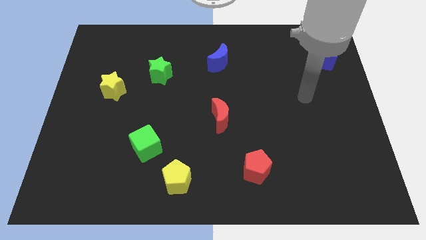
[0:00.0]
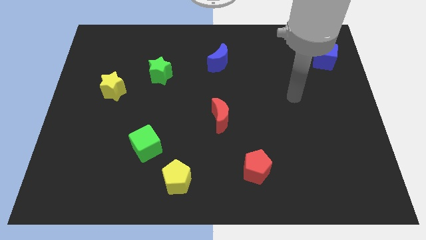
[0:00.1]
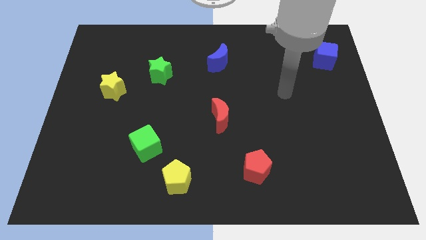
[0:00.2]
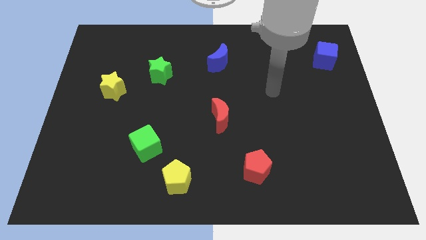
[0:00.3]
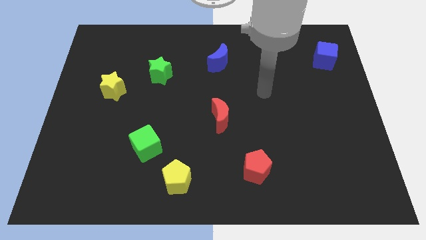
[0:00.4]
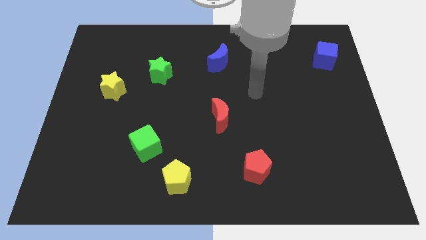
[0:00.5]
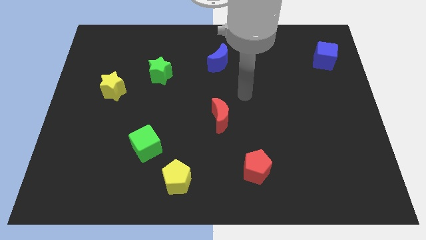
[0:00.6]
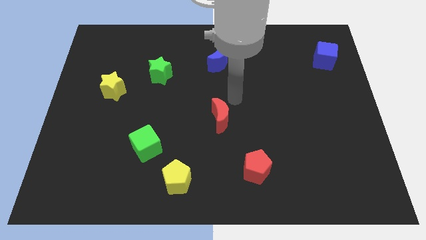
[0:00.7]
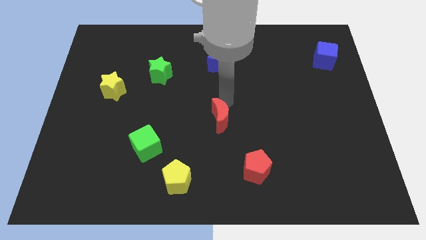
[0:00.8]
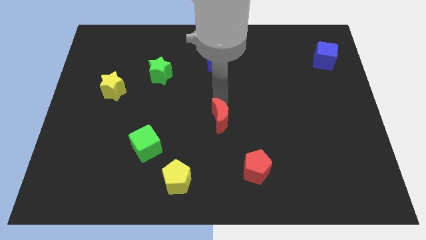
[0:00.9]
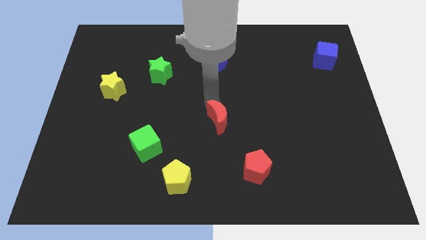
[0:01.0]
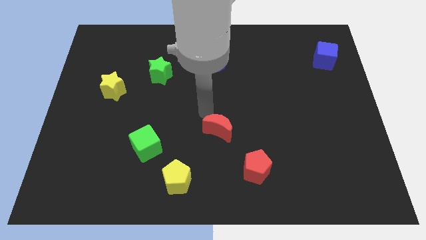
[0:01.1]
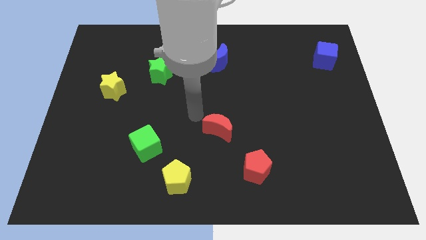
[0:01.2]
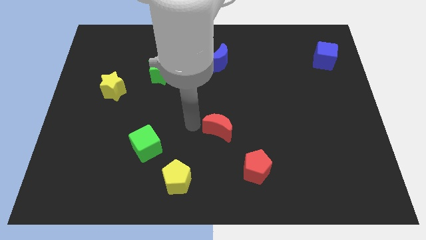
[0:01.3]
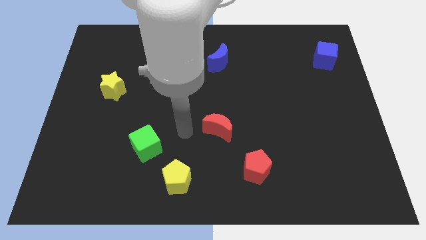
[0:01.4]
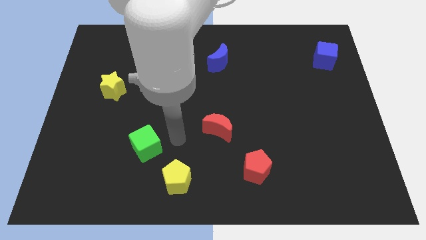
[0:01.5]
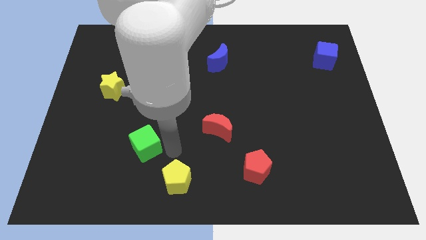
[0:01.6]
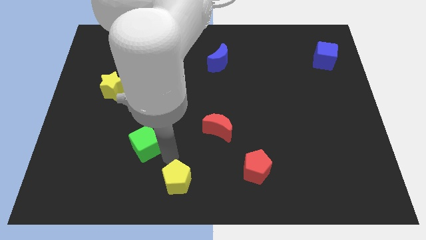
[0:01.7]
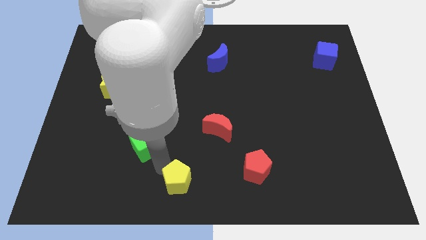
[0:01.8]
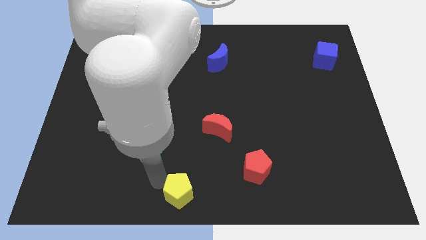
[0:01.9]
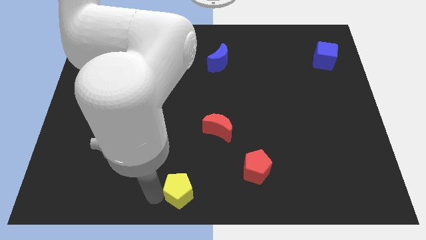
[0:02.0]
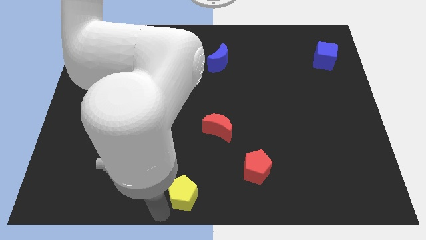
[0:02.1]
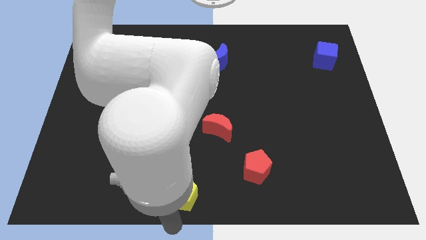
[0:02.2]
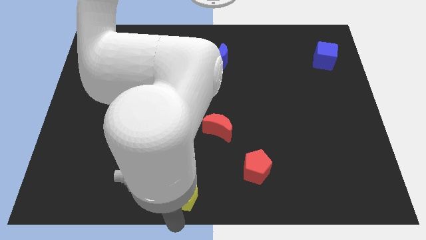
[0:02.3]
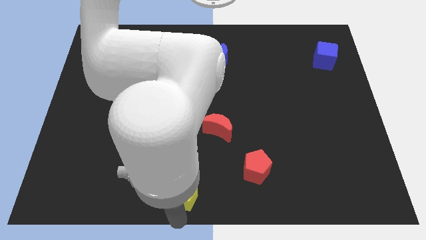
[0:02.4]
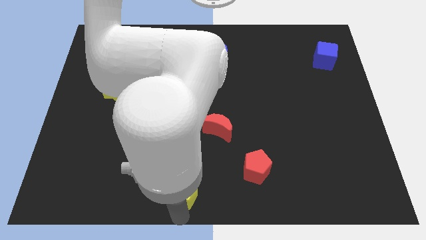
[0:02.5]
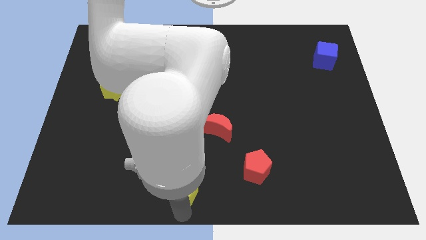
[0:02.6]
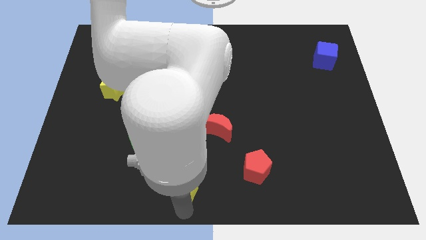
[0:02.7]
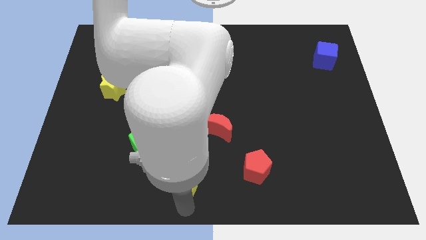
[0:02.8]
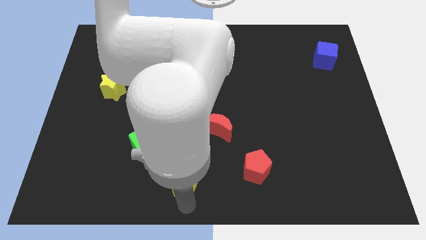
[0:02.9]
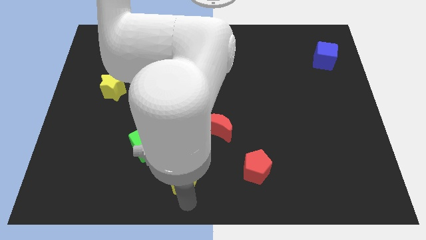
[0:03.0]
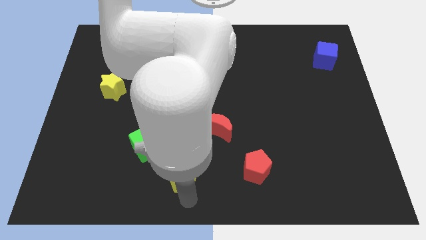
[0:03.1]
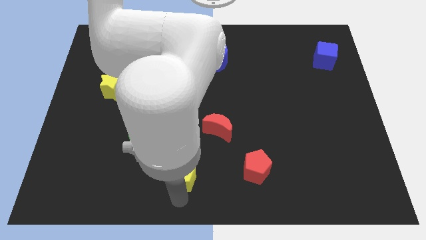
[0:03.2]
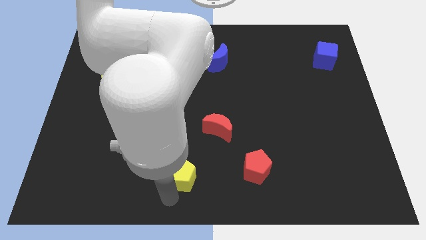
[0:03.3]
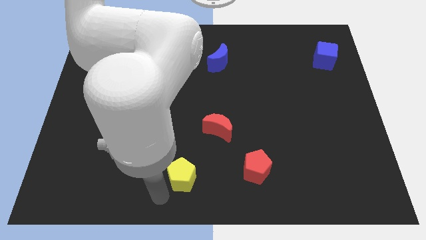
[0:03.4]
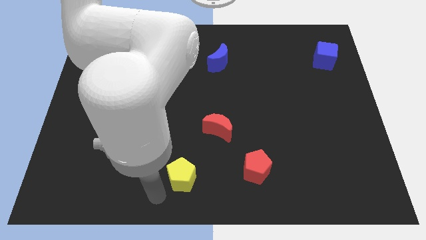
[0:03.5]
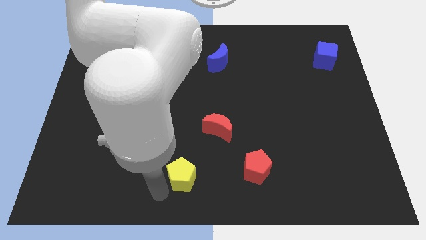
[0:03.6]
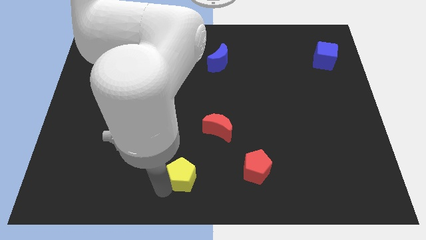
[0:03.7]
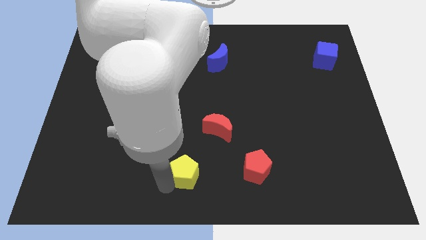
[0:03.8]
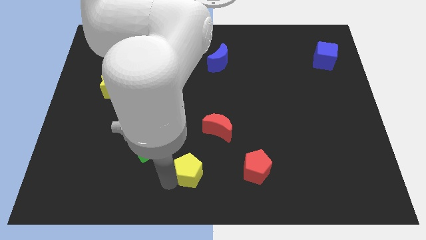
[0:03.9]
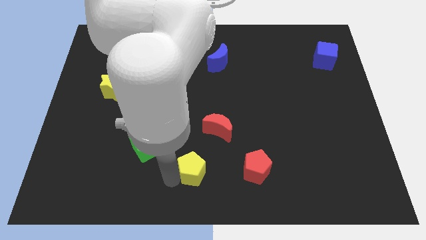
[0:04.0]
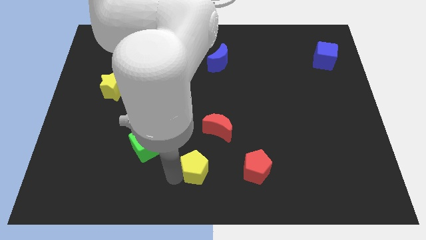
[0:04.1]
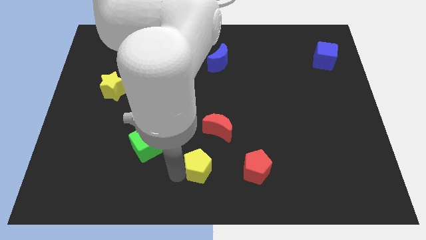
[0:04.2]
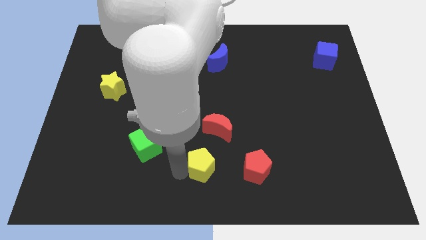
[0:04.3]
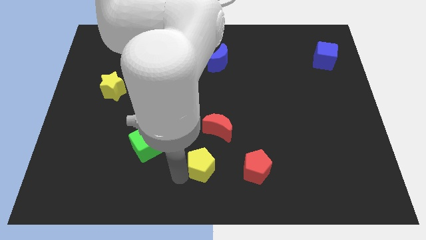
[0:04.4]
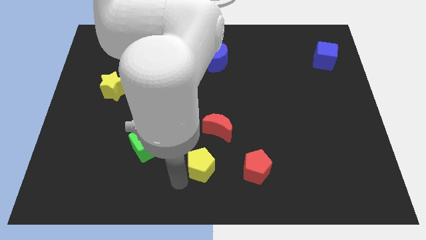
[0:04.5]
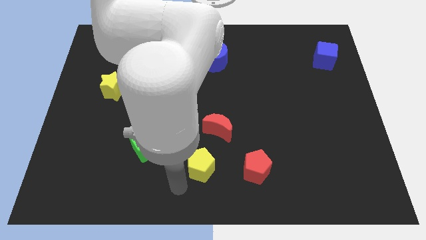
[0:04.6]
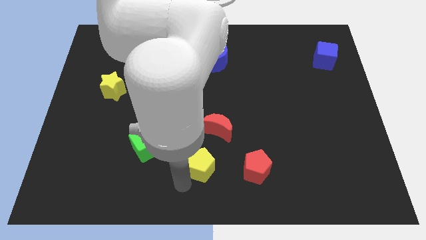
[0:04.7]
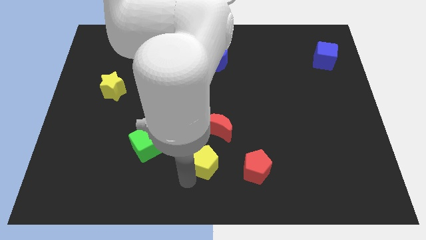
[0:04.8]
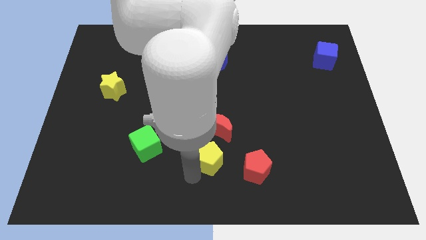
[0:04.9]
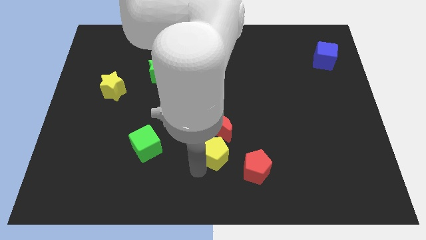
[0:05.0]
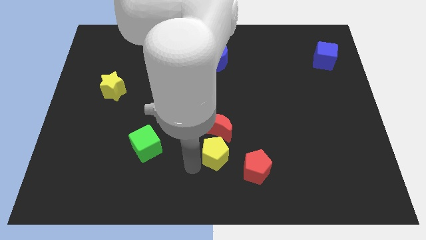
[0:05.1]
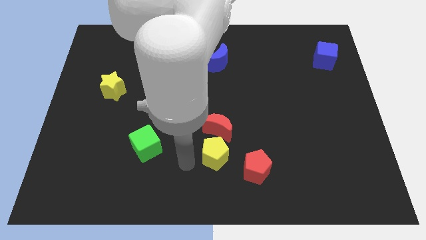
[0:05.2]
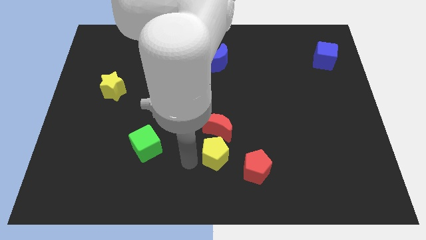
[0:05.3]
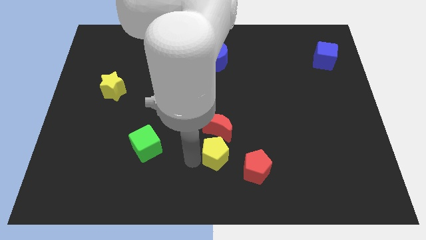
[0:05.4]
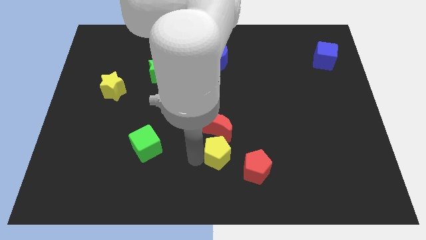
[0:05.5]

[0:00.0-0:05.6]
slide the yellow pentagon to the bottom right side of the red moon

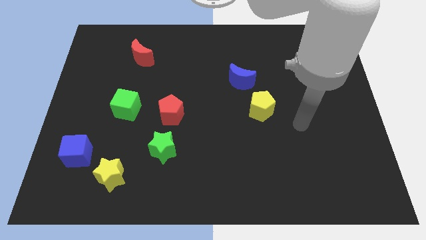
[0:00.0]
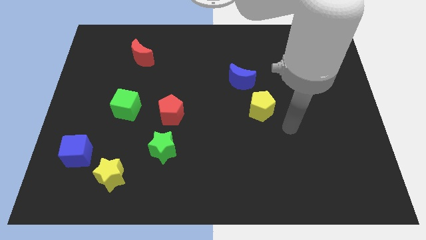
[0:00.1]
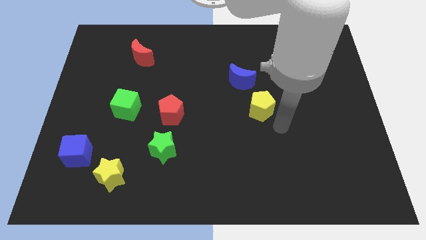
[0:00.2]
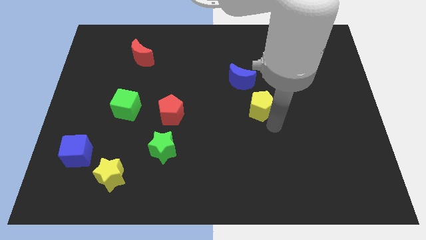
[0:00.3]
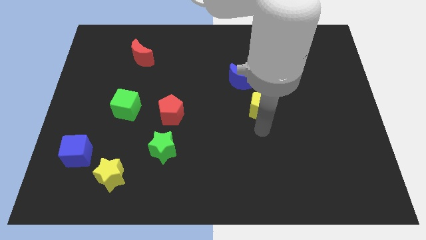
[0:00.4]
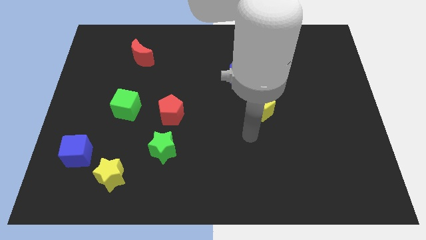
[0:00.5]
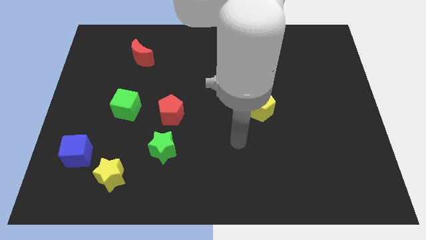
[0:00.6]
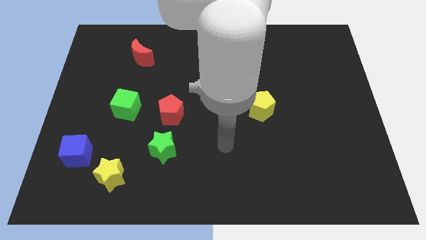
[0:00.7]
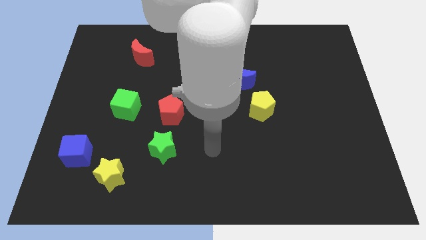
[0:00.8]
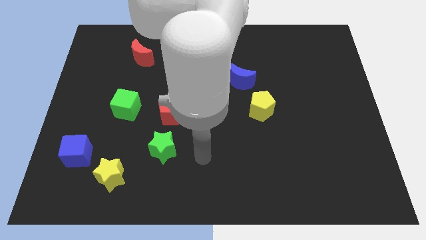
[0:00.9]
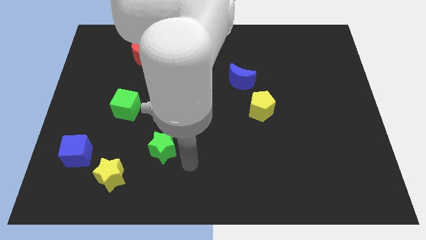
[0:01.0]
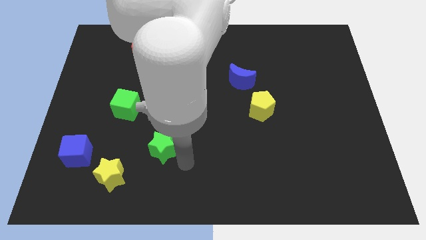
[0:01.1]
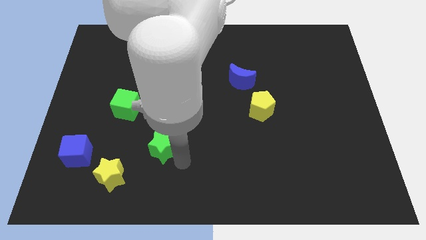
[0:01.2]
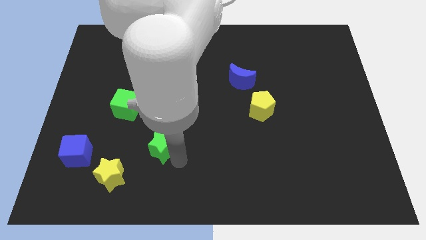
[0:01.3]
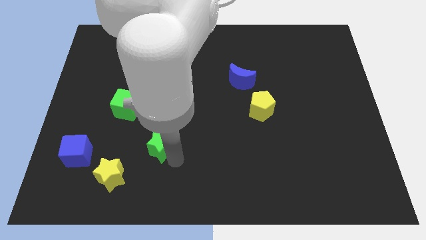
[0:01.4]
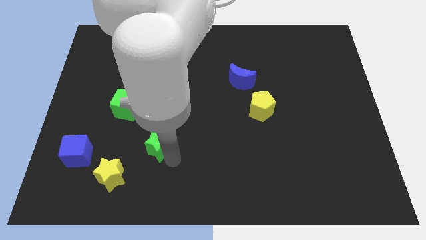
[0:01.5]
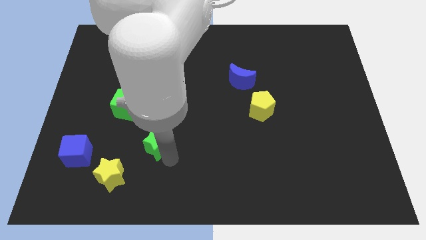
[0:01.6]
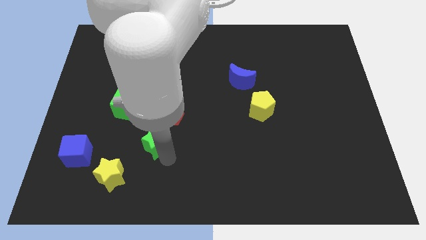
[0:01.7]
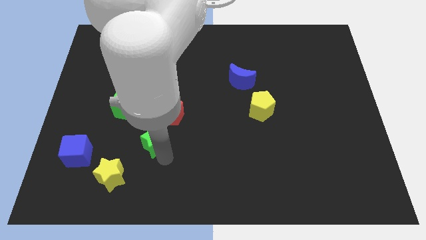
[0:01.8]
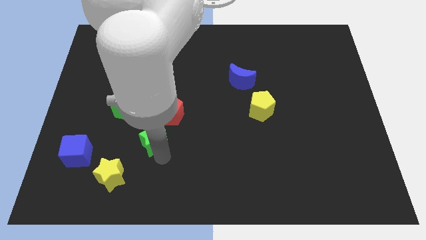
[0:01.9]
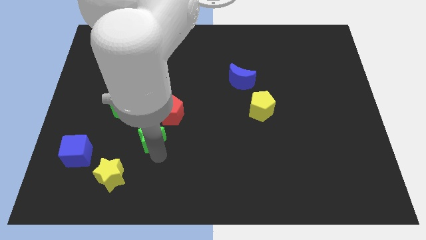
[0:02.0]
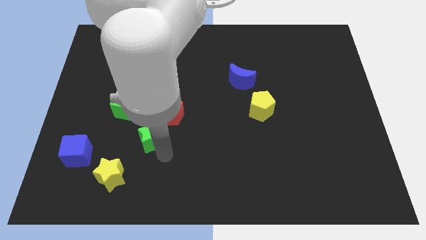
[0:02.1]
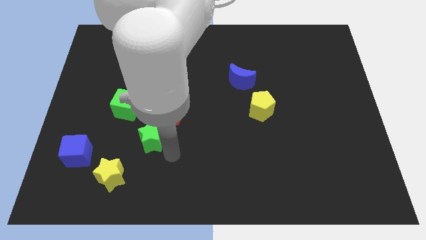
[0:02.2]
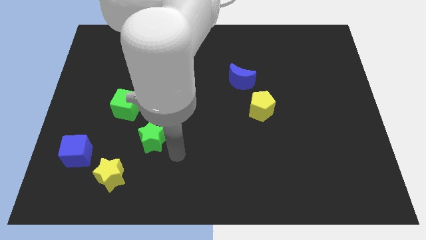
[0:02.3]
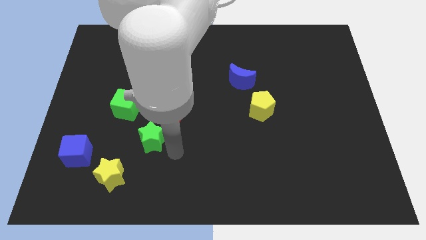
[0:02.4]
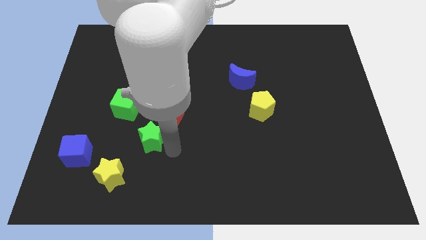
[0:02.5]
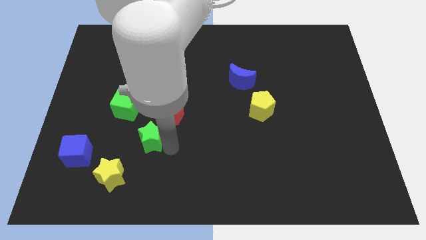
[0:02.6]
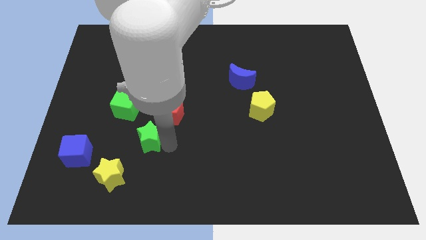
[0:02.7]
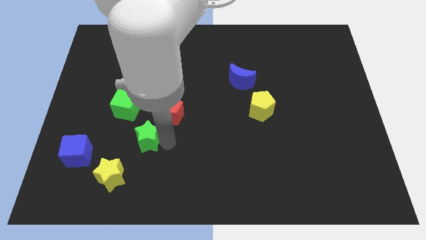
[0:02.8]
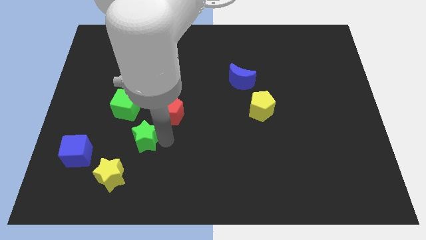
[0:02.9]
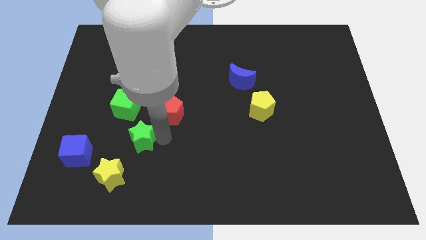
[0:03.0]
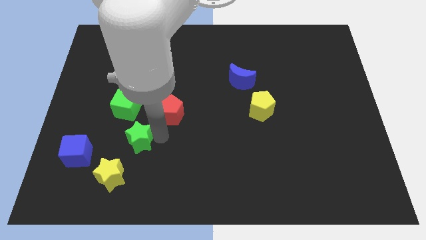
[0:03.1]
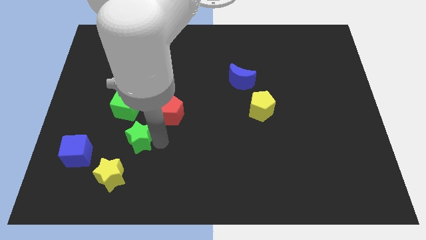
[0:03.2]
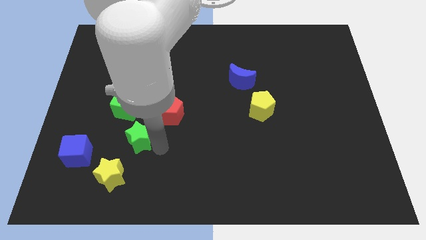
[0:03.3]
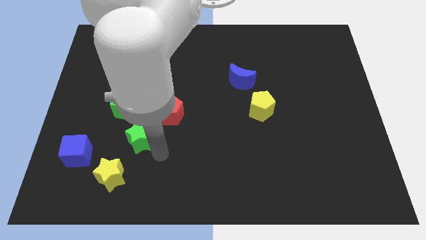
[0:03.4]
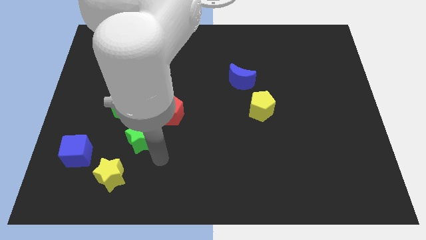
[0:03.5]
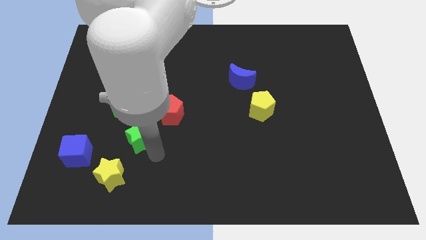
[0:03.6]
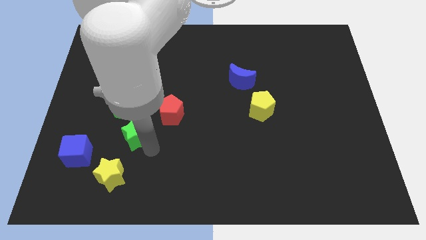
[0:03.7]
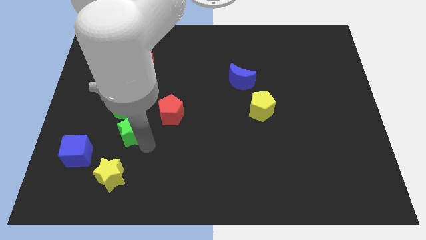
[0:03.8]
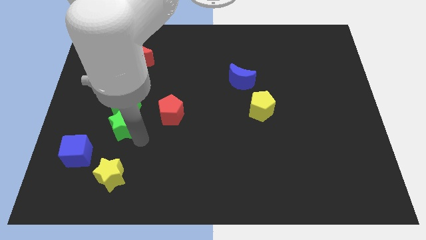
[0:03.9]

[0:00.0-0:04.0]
move the green star to the left side of the red pentagon
